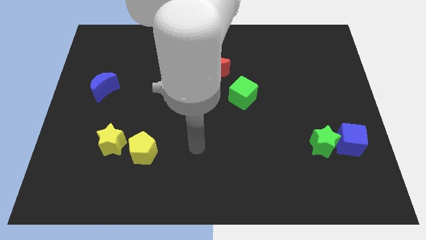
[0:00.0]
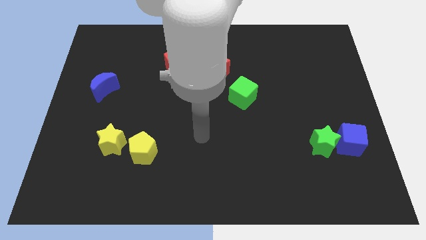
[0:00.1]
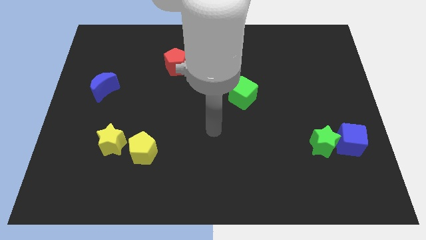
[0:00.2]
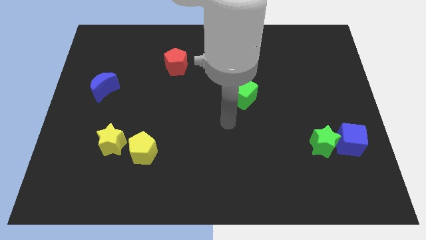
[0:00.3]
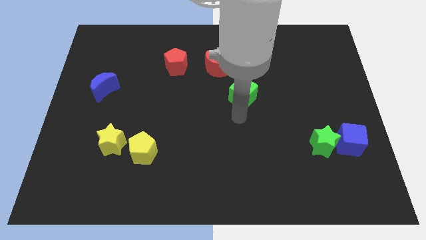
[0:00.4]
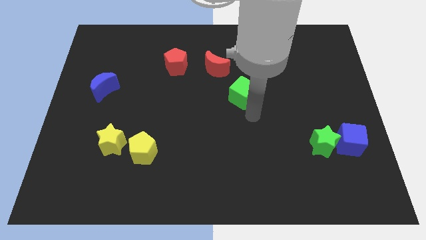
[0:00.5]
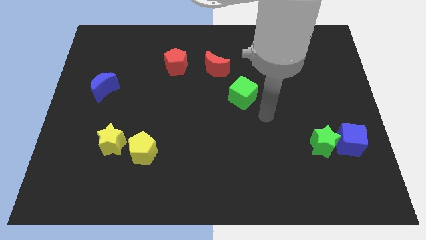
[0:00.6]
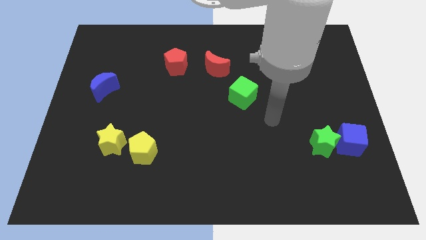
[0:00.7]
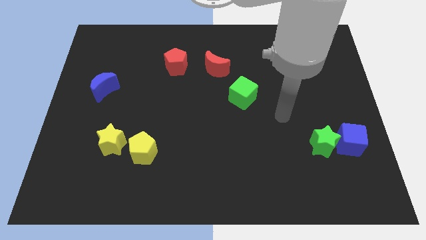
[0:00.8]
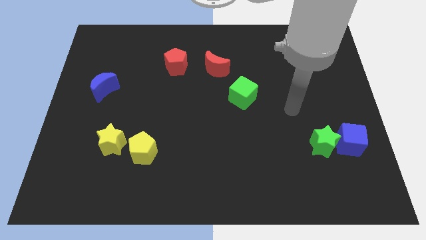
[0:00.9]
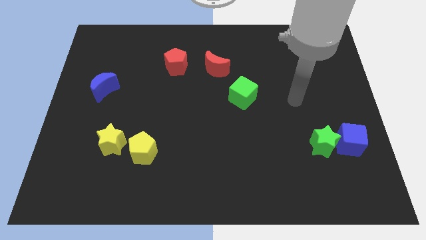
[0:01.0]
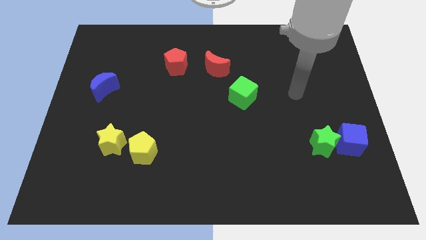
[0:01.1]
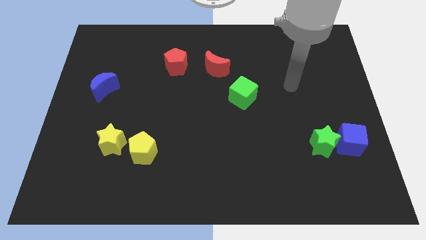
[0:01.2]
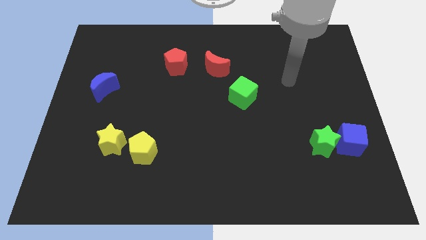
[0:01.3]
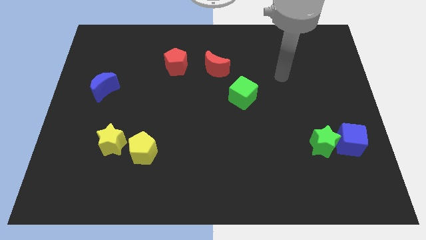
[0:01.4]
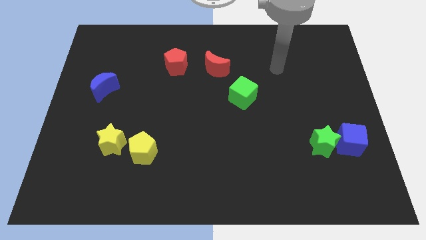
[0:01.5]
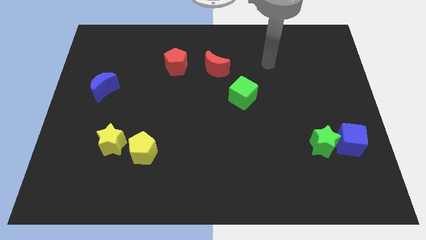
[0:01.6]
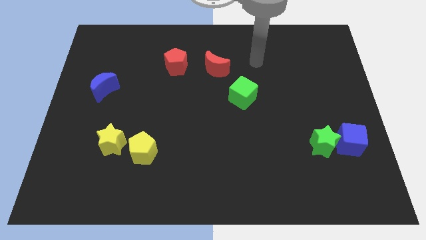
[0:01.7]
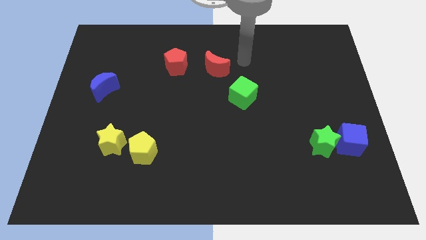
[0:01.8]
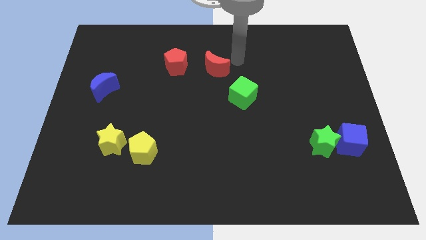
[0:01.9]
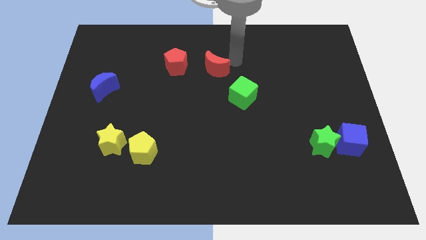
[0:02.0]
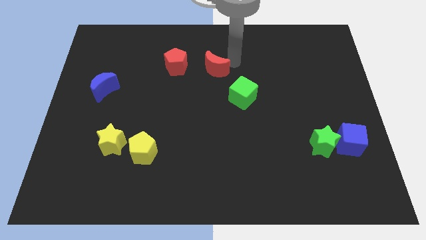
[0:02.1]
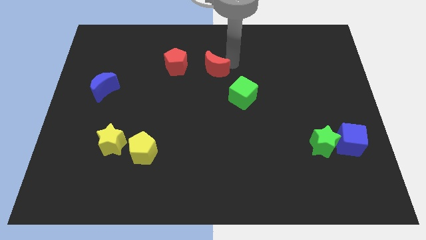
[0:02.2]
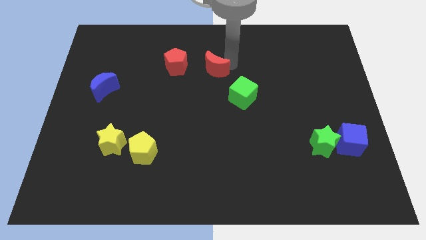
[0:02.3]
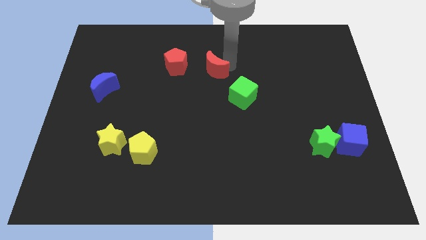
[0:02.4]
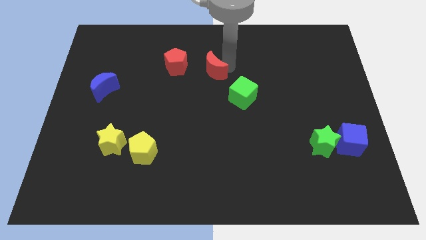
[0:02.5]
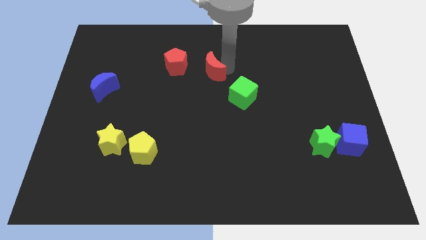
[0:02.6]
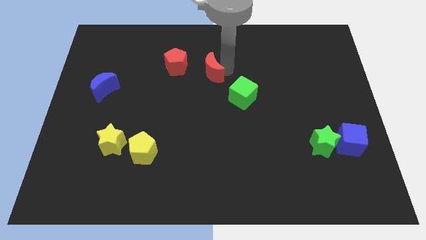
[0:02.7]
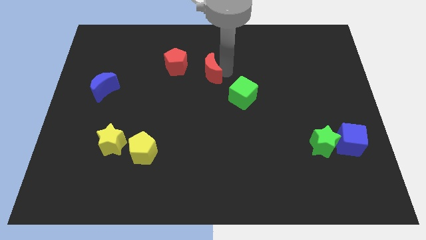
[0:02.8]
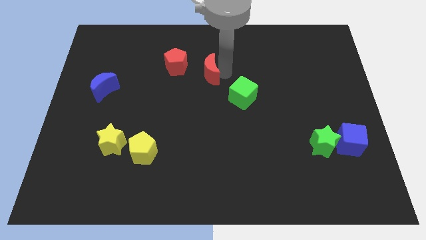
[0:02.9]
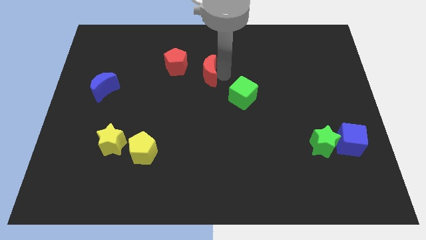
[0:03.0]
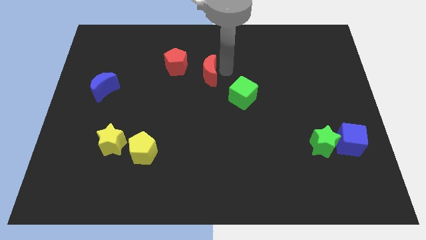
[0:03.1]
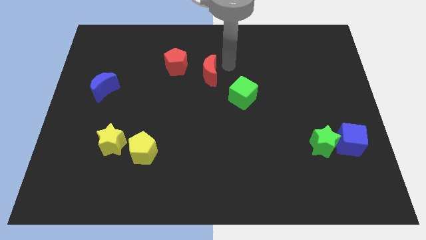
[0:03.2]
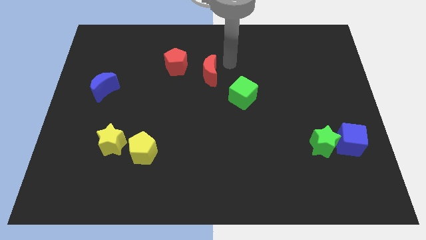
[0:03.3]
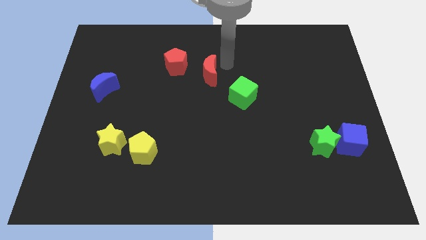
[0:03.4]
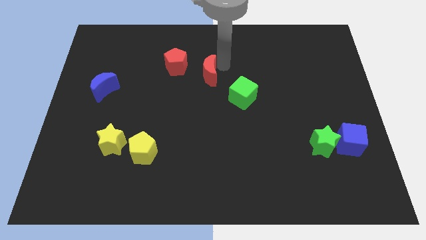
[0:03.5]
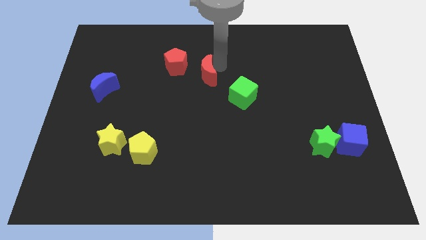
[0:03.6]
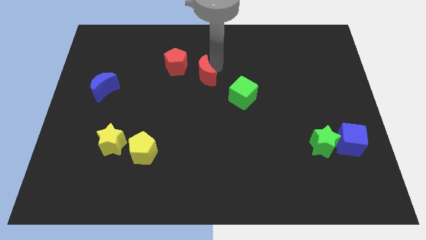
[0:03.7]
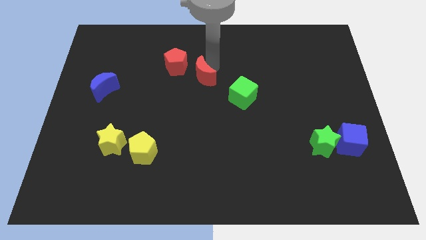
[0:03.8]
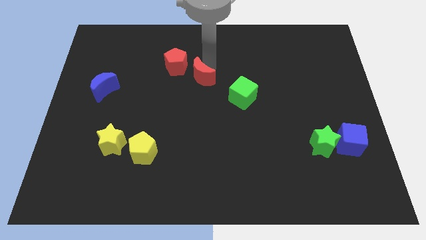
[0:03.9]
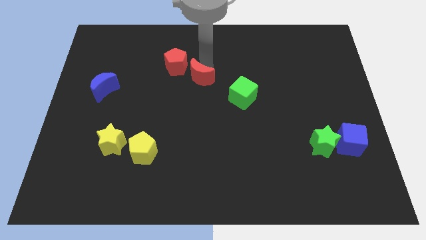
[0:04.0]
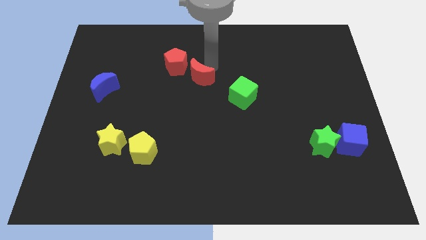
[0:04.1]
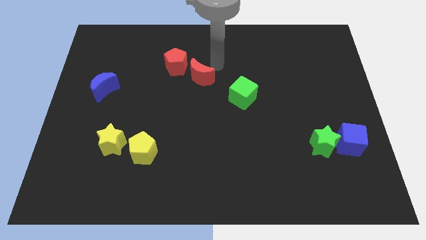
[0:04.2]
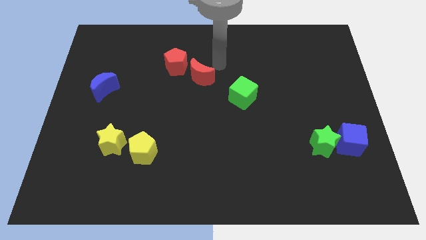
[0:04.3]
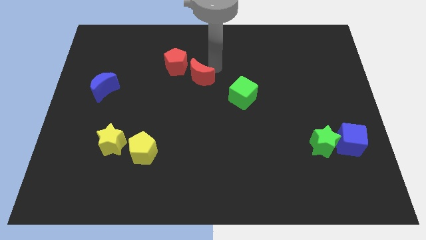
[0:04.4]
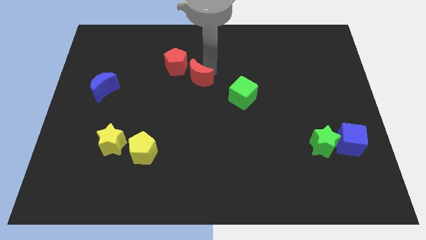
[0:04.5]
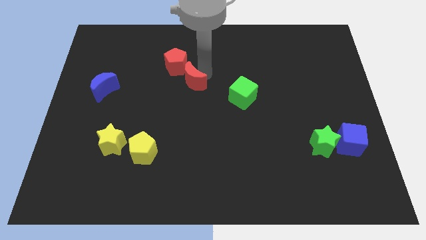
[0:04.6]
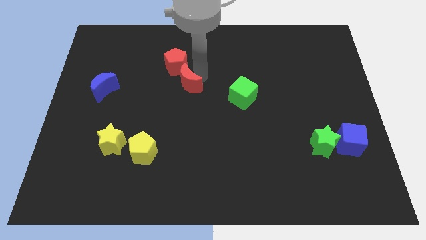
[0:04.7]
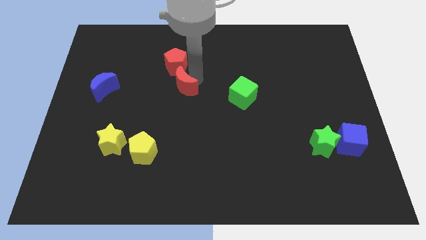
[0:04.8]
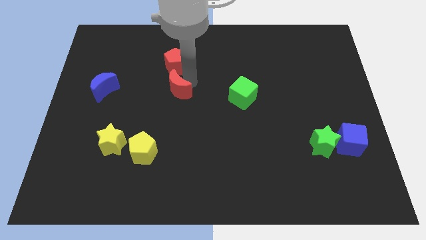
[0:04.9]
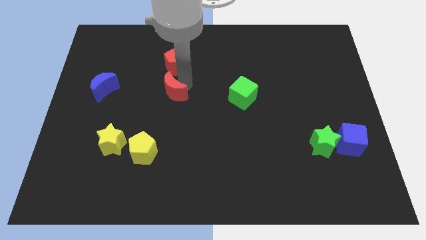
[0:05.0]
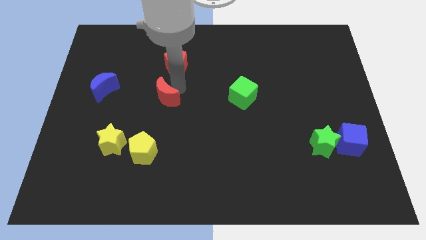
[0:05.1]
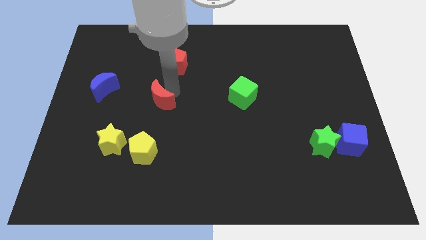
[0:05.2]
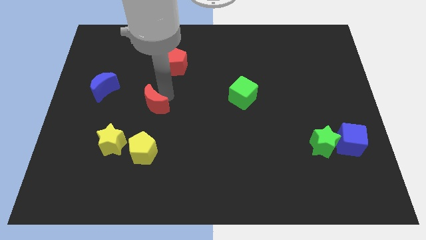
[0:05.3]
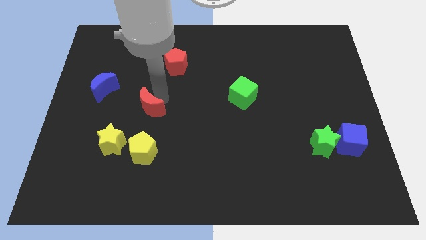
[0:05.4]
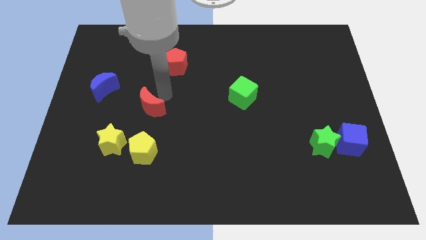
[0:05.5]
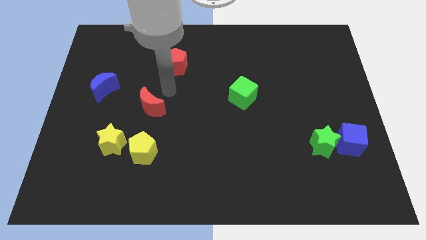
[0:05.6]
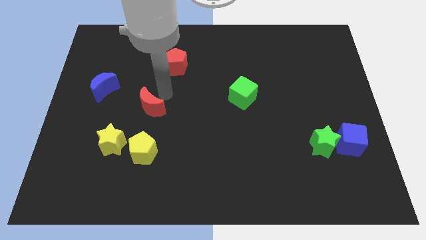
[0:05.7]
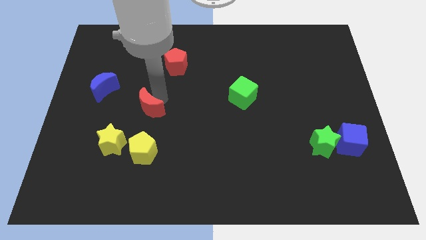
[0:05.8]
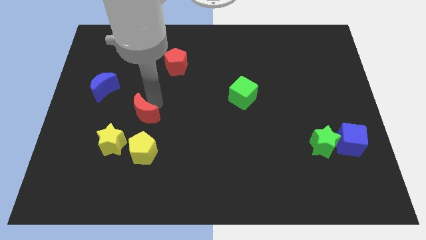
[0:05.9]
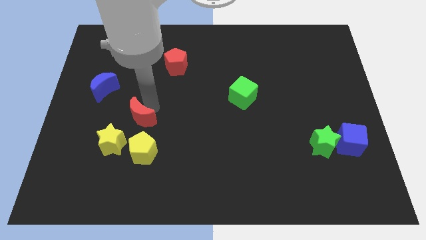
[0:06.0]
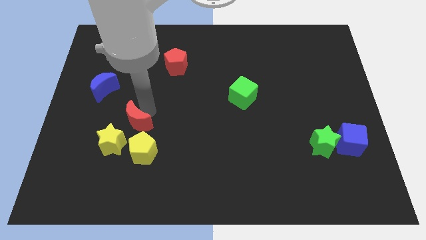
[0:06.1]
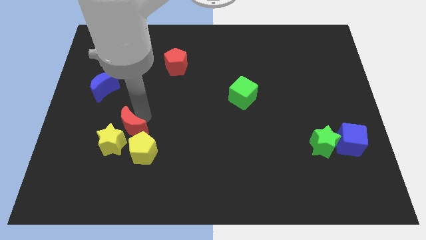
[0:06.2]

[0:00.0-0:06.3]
put the red moon towards the yellow star

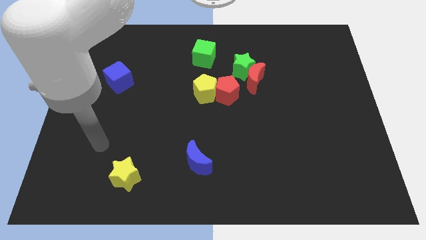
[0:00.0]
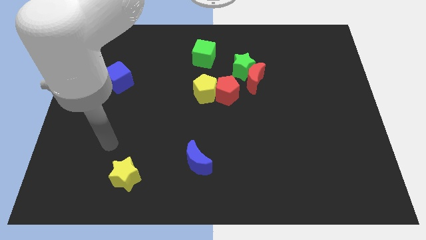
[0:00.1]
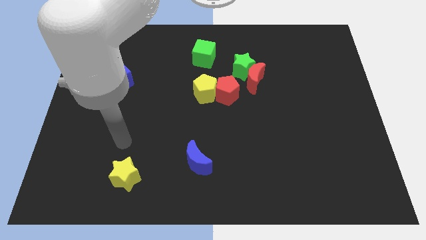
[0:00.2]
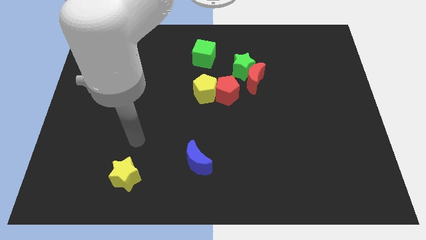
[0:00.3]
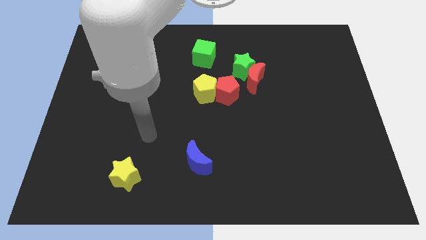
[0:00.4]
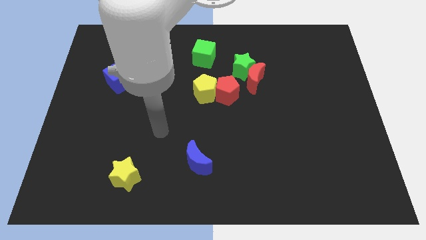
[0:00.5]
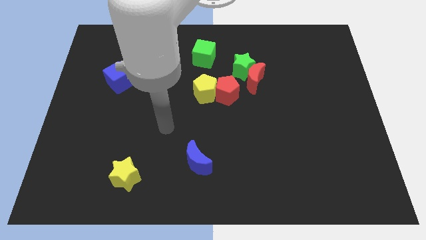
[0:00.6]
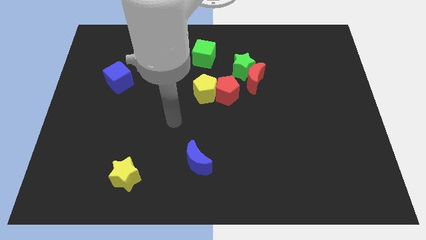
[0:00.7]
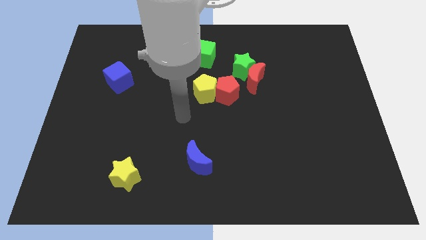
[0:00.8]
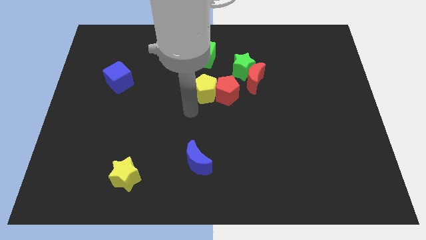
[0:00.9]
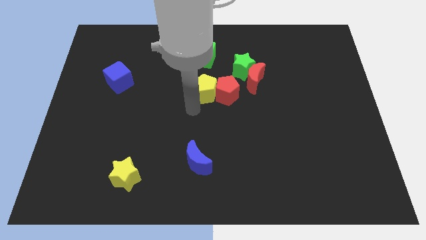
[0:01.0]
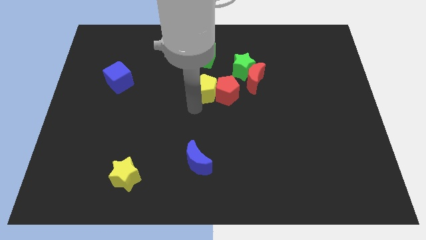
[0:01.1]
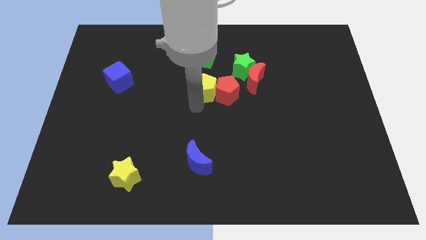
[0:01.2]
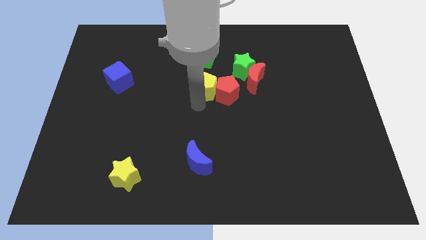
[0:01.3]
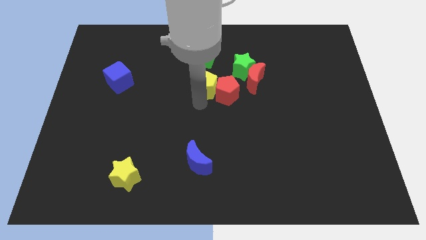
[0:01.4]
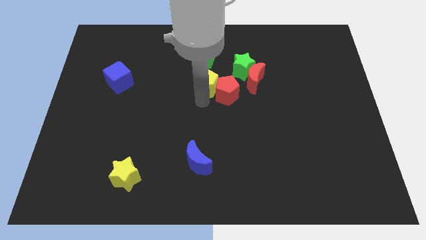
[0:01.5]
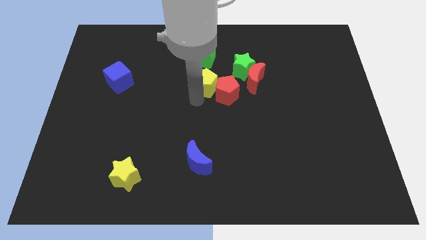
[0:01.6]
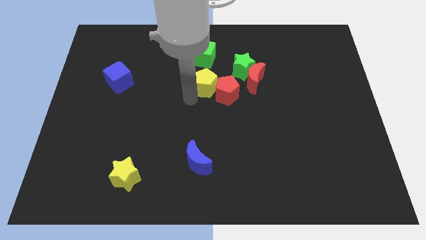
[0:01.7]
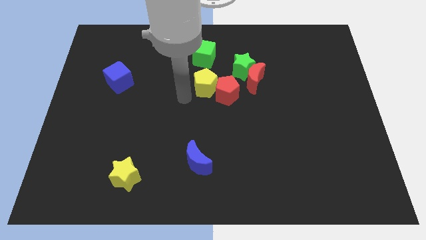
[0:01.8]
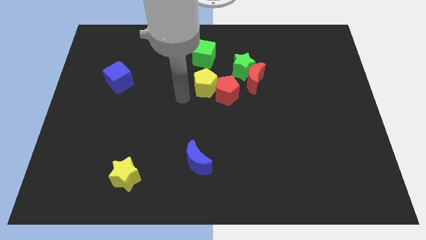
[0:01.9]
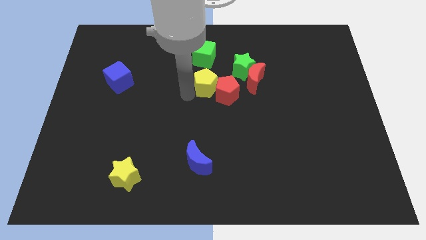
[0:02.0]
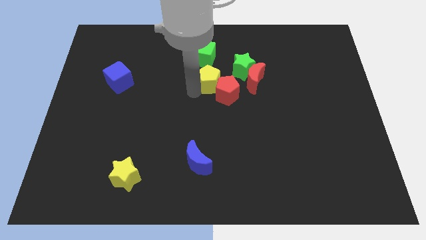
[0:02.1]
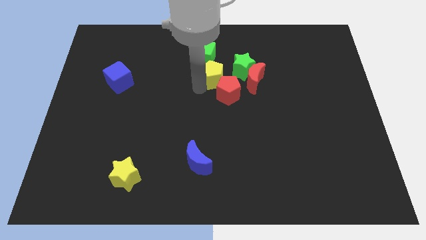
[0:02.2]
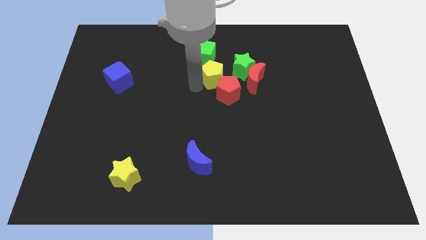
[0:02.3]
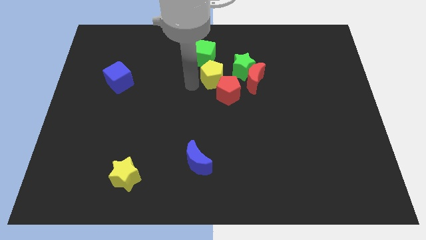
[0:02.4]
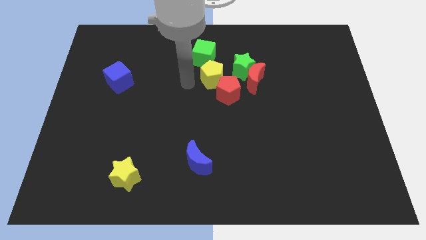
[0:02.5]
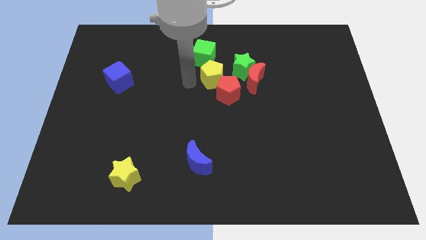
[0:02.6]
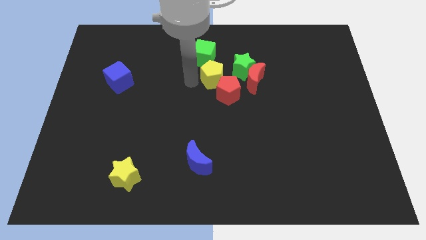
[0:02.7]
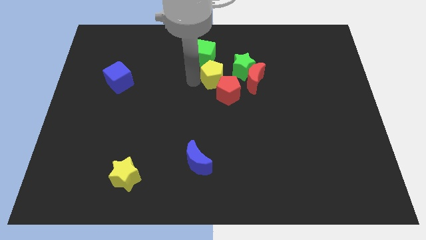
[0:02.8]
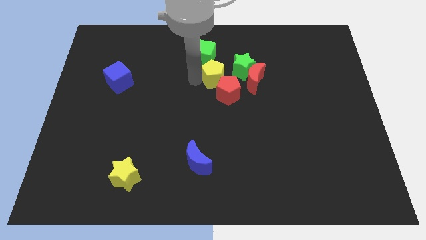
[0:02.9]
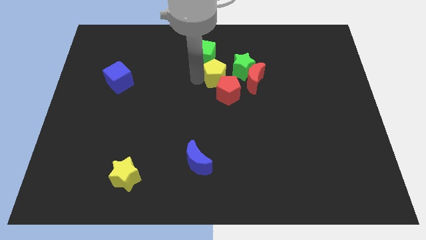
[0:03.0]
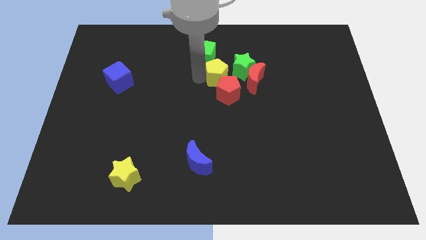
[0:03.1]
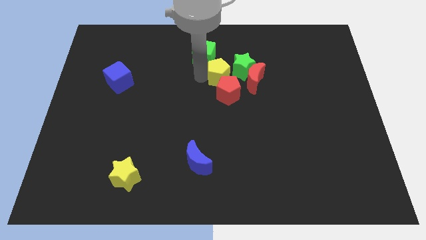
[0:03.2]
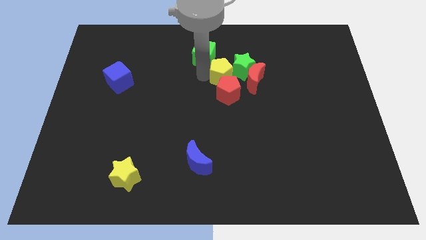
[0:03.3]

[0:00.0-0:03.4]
push the yellow pentagon towards the green star
